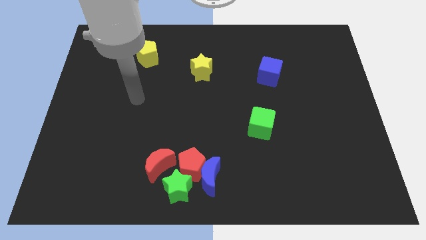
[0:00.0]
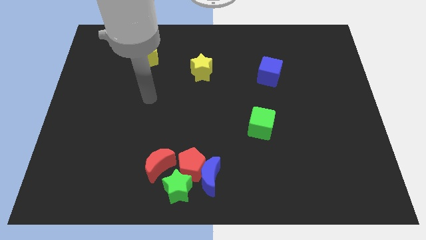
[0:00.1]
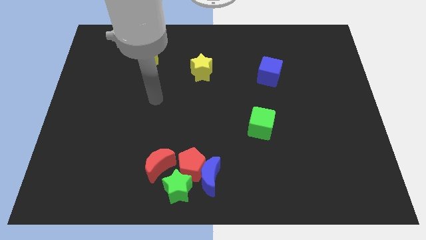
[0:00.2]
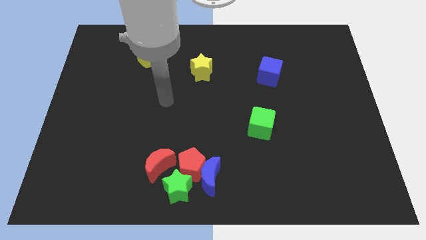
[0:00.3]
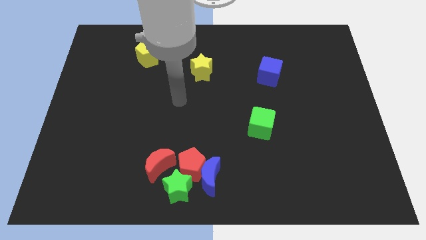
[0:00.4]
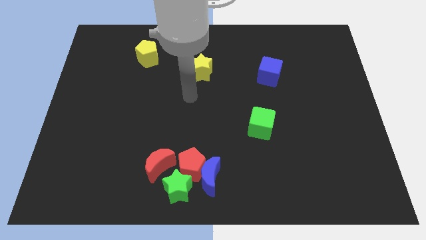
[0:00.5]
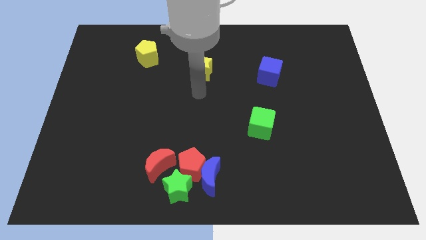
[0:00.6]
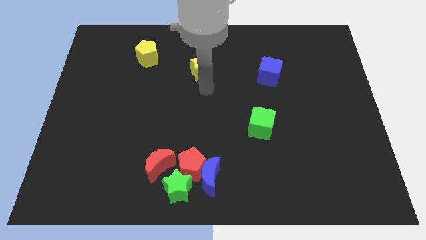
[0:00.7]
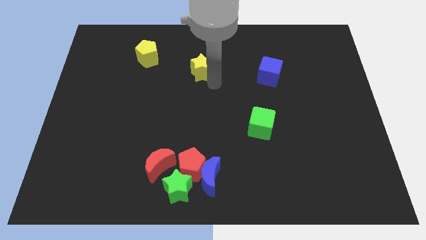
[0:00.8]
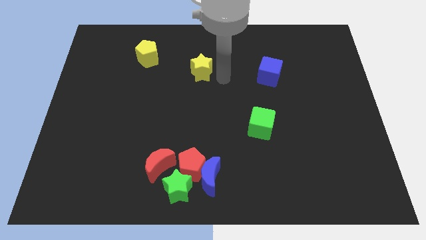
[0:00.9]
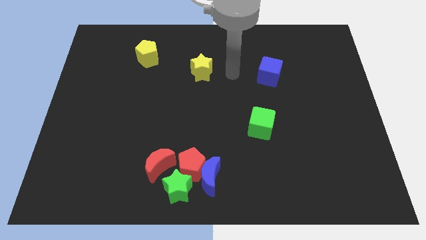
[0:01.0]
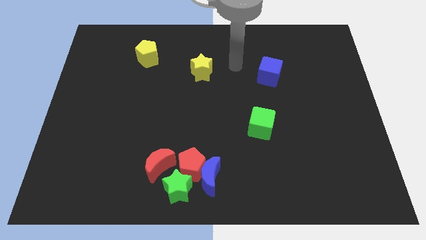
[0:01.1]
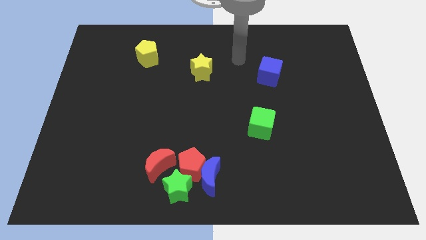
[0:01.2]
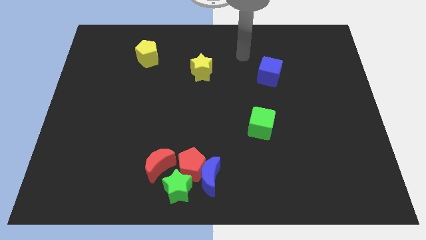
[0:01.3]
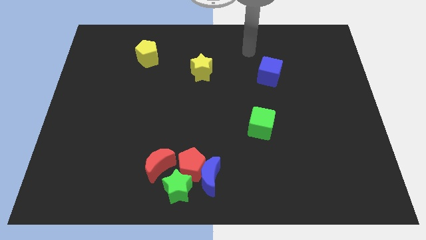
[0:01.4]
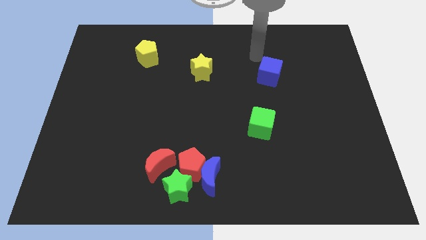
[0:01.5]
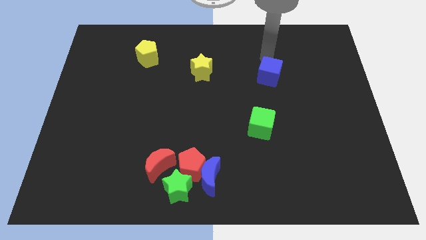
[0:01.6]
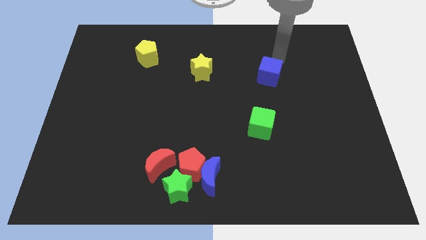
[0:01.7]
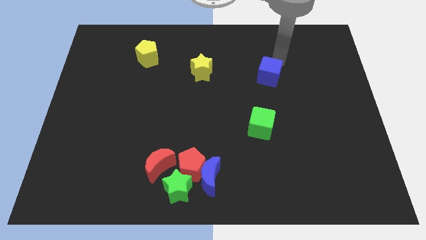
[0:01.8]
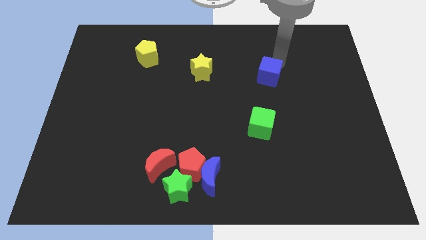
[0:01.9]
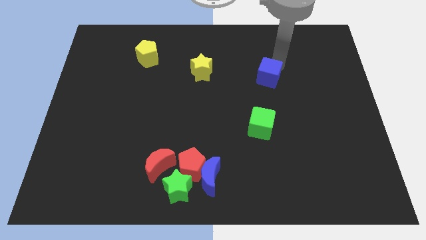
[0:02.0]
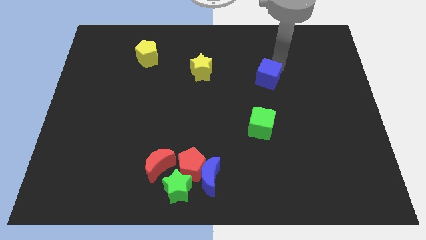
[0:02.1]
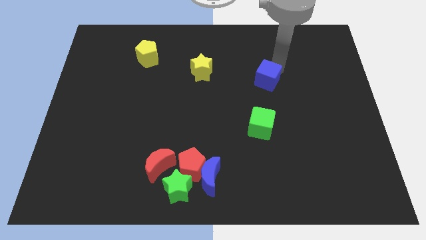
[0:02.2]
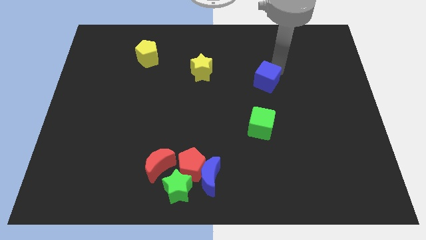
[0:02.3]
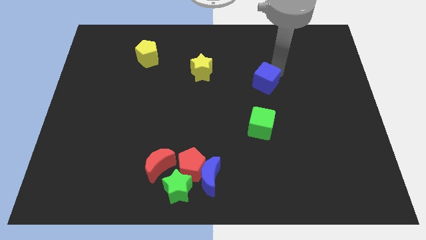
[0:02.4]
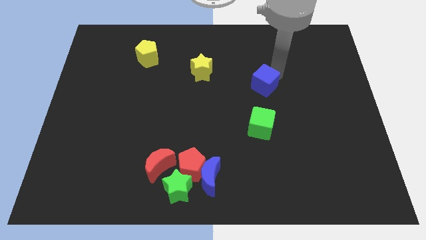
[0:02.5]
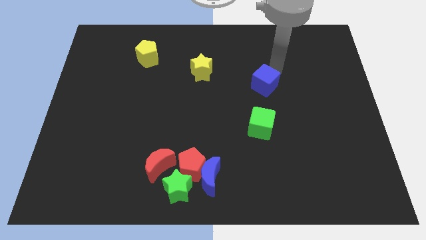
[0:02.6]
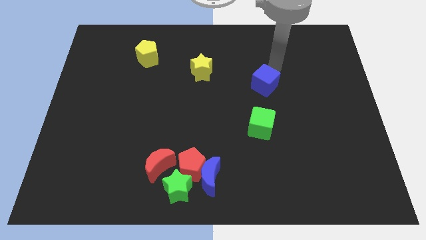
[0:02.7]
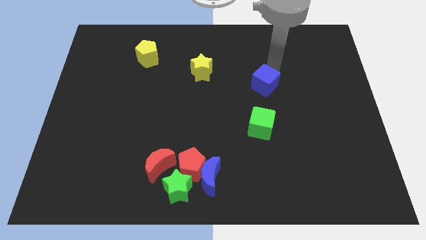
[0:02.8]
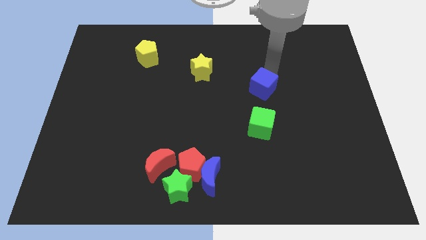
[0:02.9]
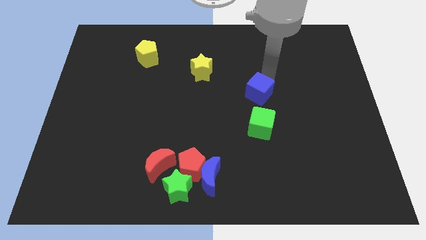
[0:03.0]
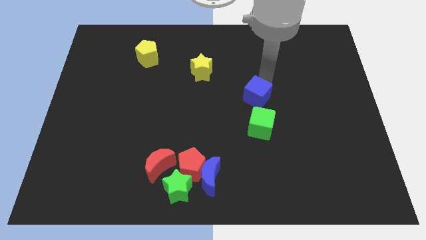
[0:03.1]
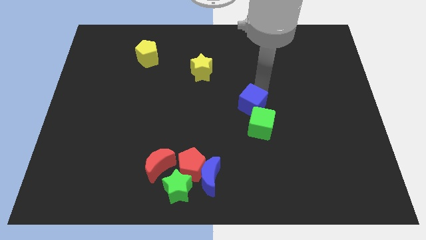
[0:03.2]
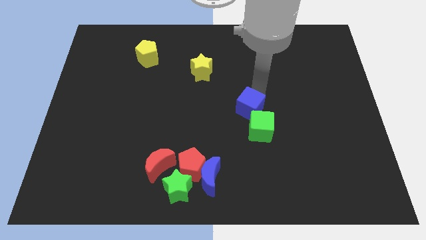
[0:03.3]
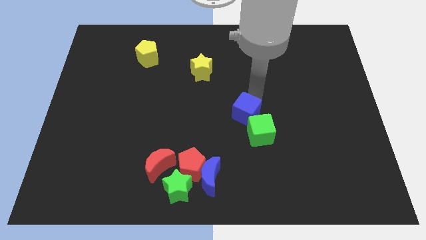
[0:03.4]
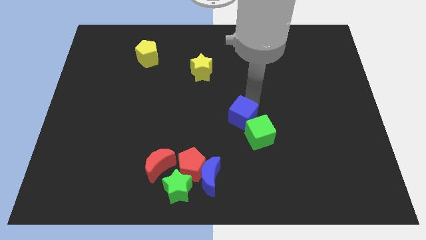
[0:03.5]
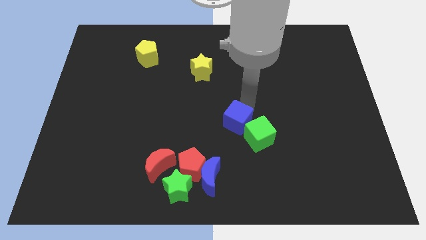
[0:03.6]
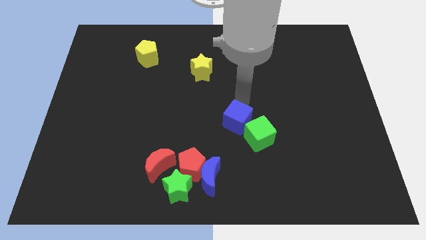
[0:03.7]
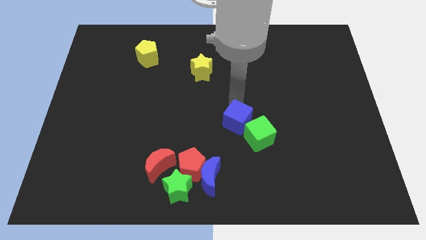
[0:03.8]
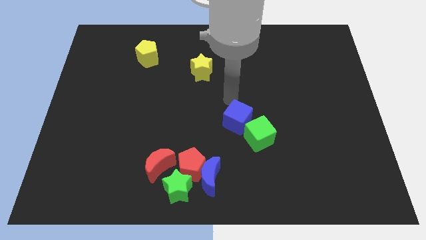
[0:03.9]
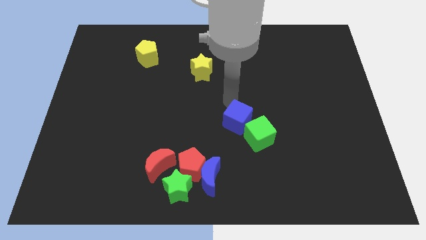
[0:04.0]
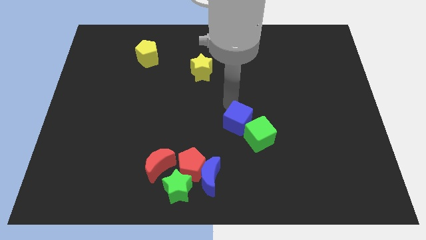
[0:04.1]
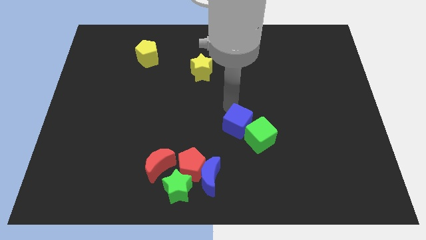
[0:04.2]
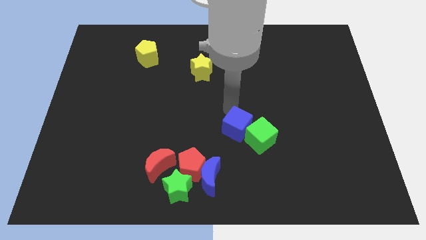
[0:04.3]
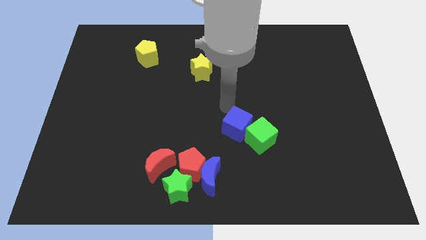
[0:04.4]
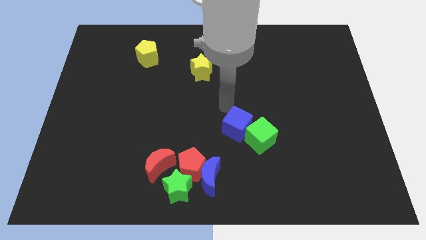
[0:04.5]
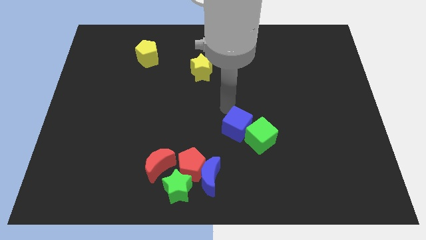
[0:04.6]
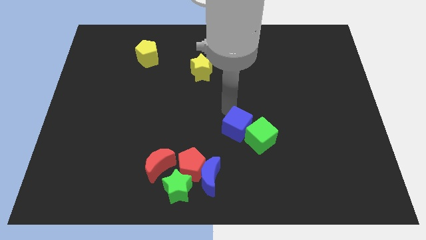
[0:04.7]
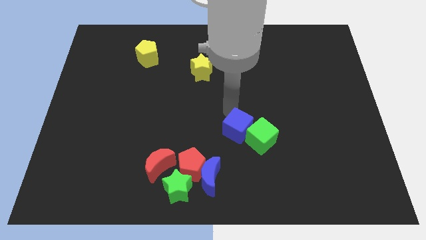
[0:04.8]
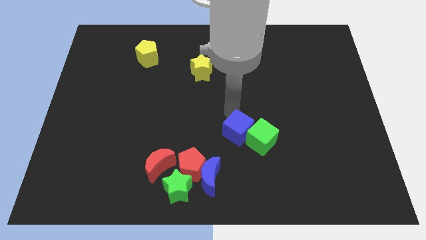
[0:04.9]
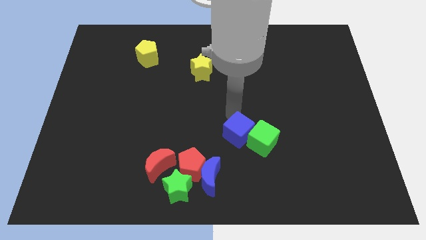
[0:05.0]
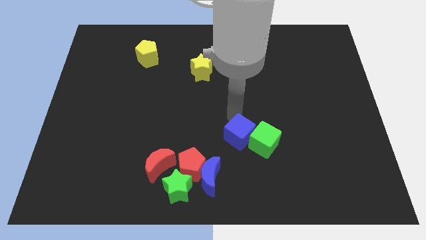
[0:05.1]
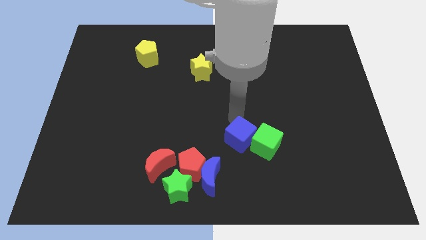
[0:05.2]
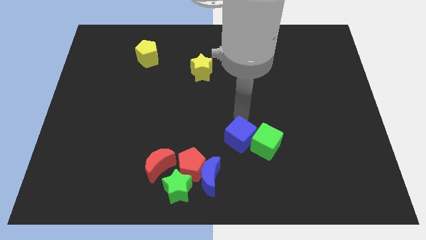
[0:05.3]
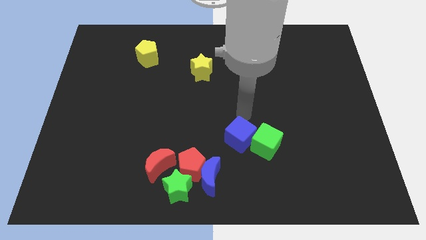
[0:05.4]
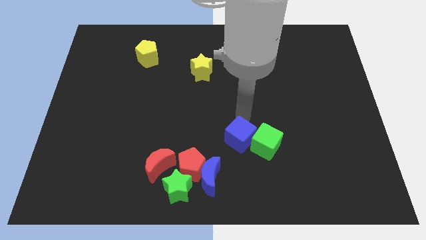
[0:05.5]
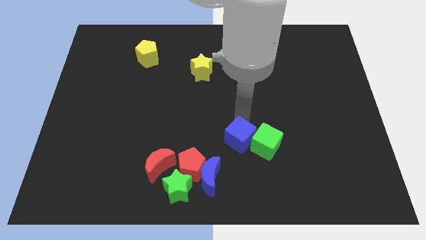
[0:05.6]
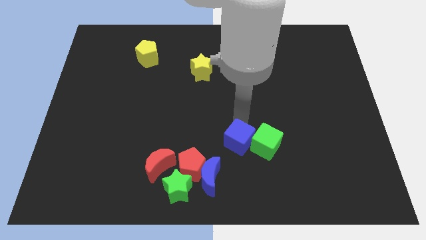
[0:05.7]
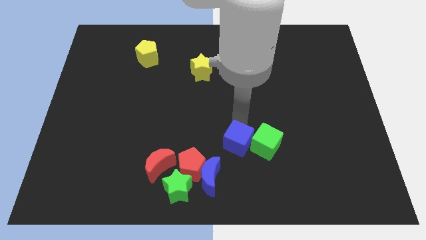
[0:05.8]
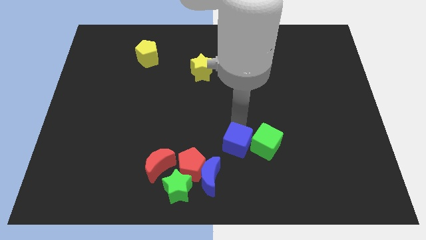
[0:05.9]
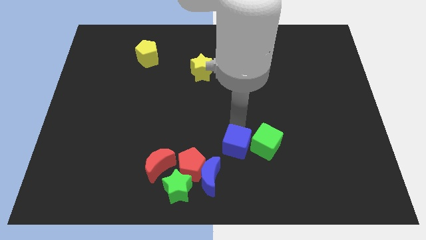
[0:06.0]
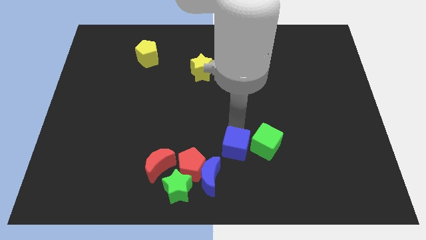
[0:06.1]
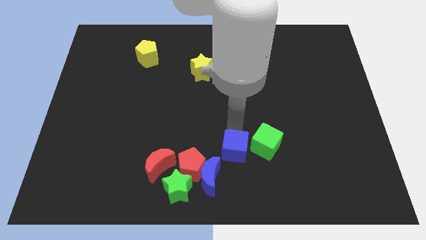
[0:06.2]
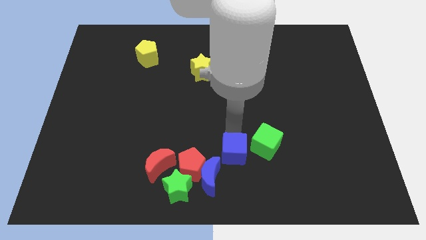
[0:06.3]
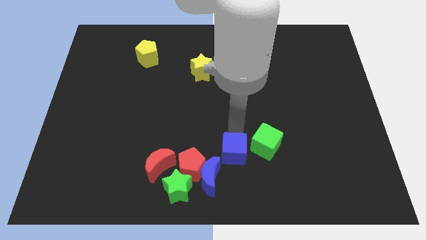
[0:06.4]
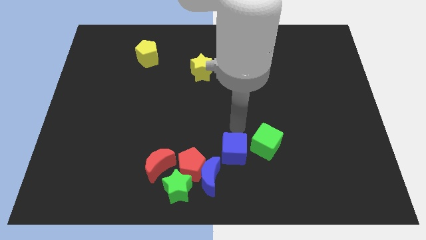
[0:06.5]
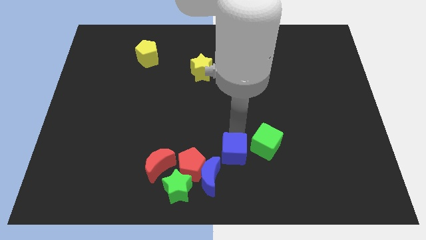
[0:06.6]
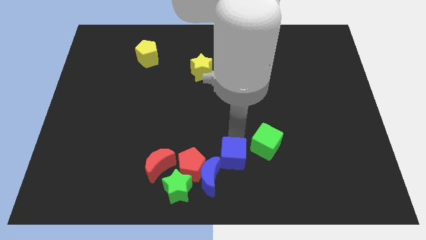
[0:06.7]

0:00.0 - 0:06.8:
put the blue cube to the bottom
